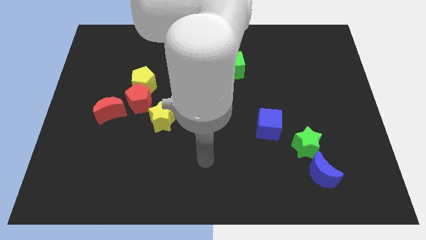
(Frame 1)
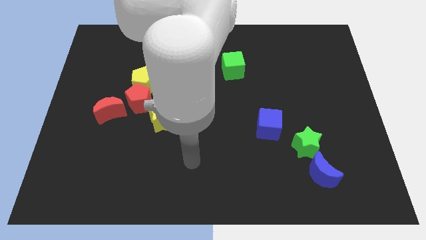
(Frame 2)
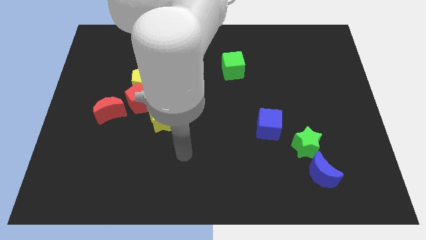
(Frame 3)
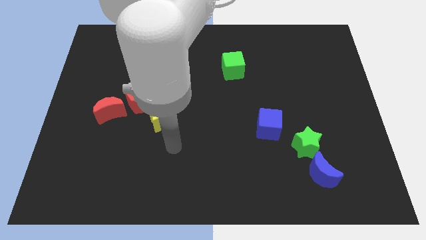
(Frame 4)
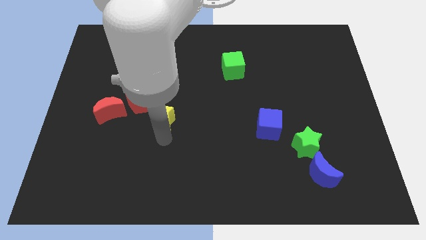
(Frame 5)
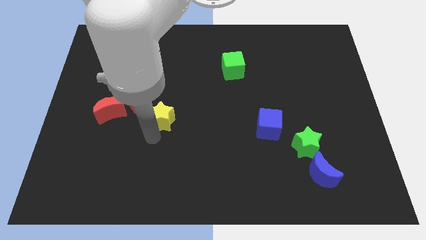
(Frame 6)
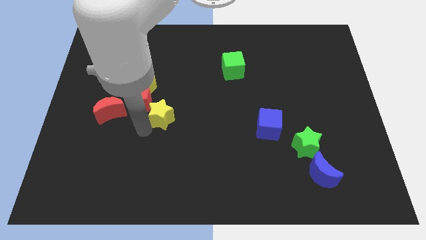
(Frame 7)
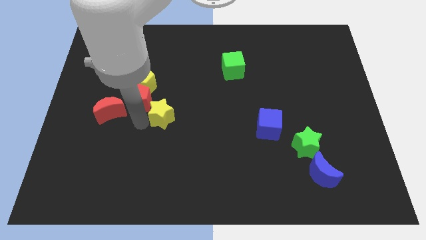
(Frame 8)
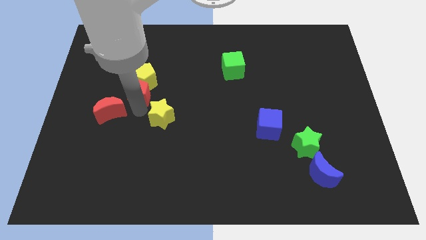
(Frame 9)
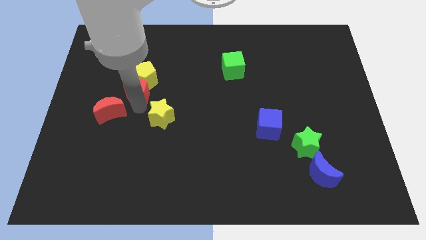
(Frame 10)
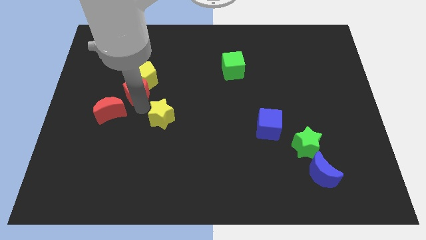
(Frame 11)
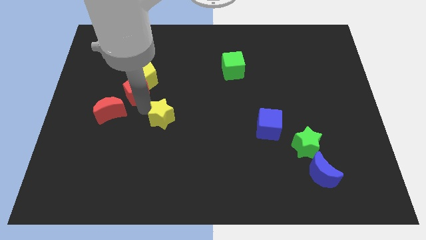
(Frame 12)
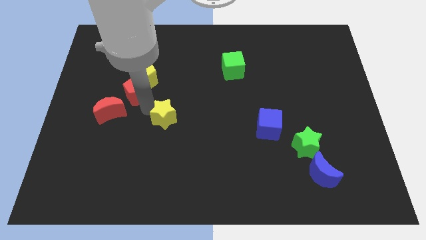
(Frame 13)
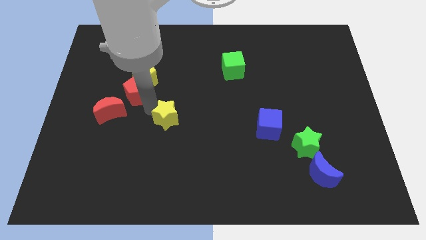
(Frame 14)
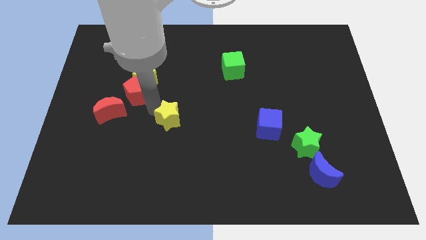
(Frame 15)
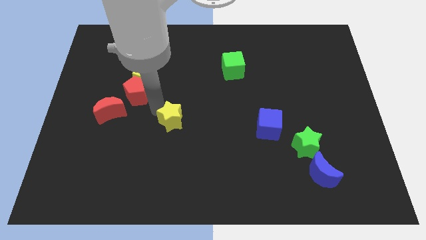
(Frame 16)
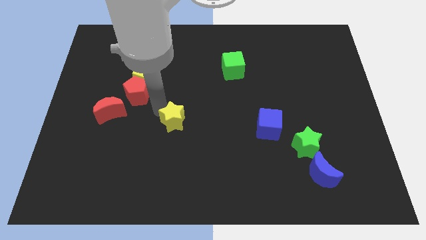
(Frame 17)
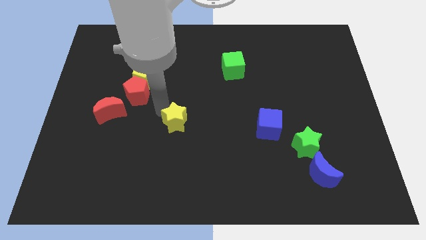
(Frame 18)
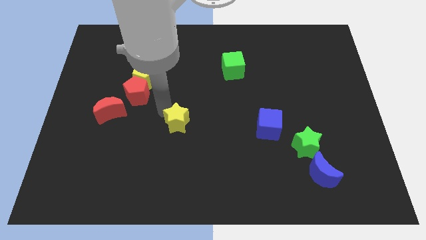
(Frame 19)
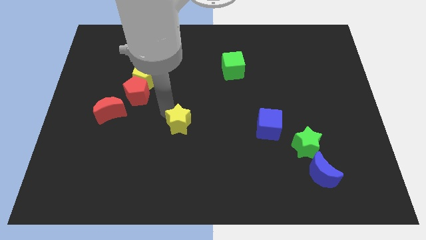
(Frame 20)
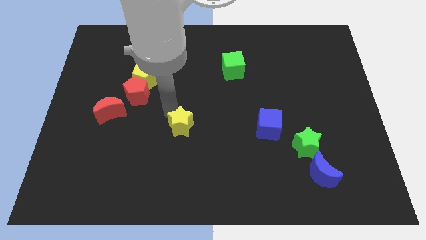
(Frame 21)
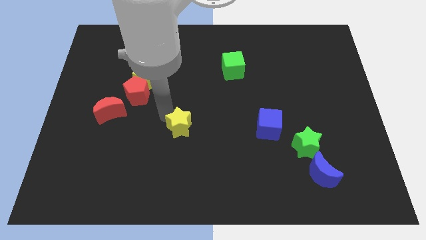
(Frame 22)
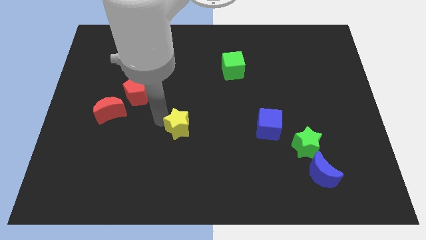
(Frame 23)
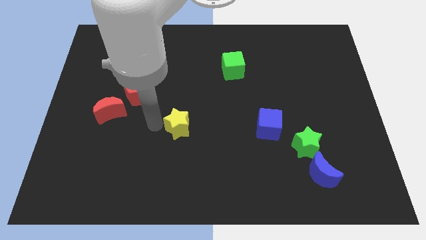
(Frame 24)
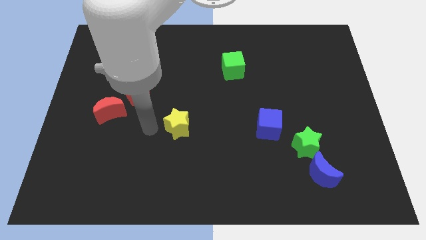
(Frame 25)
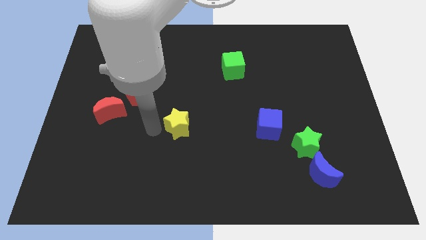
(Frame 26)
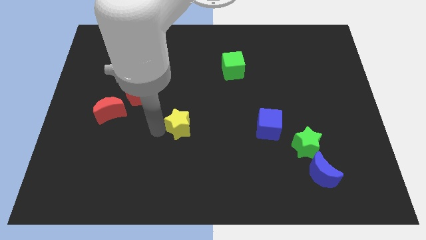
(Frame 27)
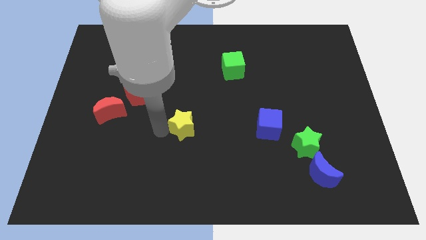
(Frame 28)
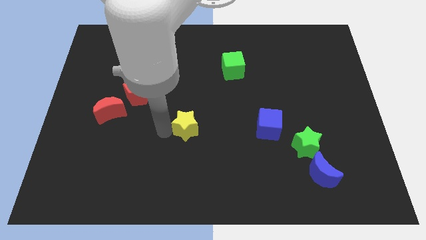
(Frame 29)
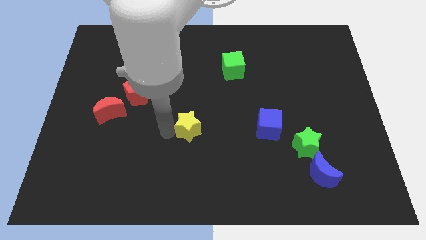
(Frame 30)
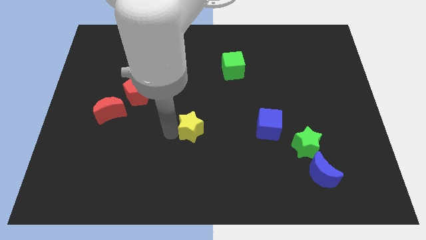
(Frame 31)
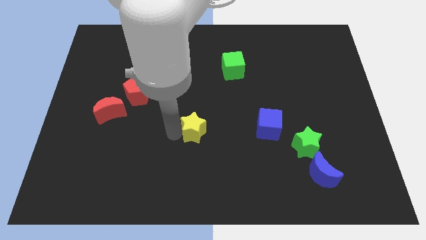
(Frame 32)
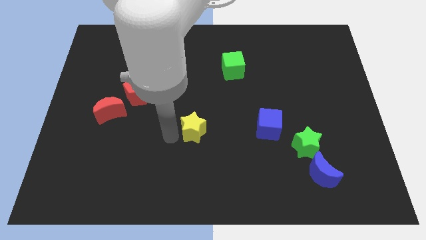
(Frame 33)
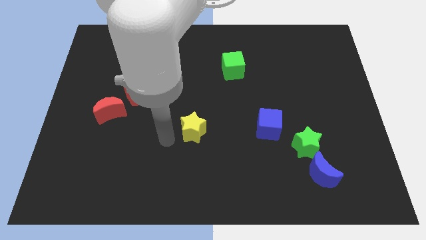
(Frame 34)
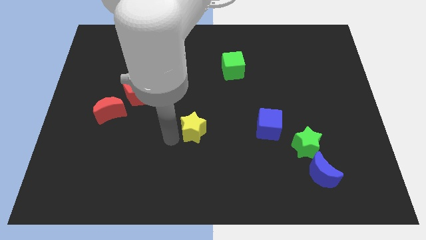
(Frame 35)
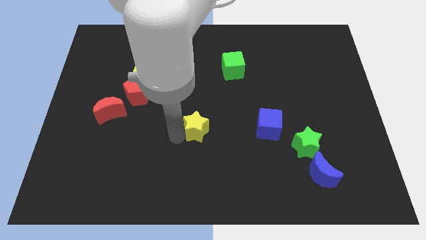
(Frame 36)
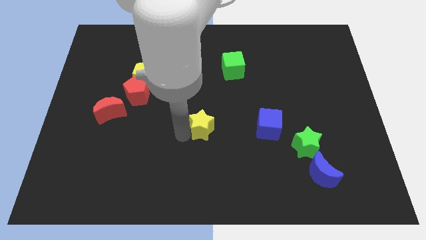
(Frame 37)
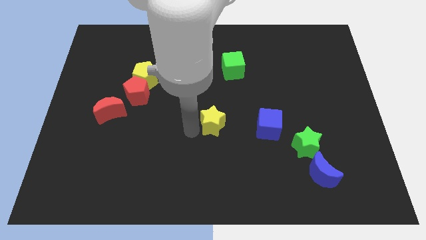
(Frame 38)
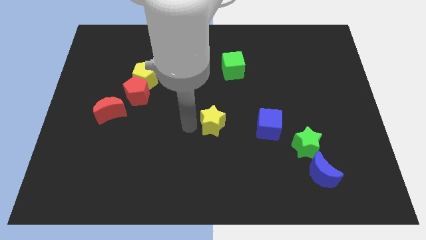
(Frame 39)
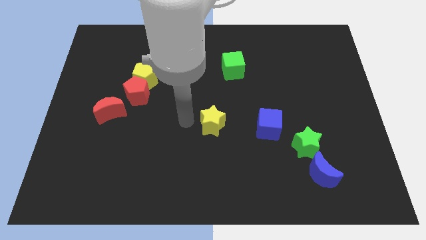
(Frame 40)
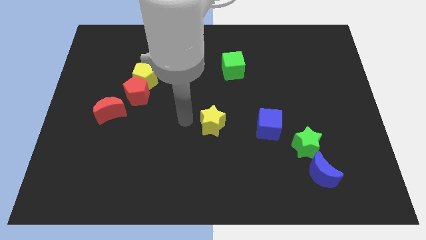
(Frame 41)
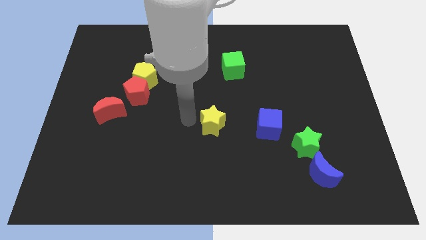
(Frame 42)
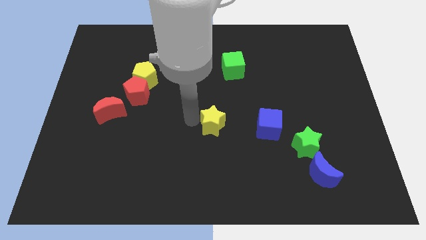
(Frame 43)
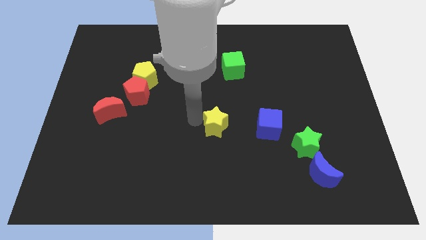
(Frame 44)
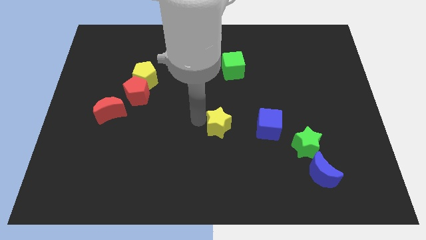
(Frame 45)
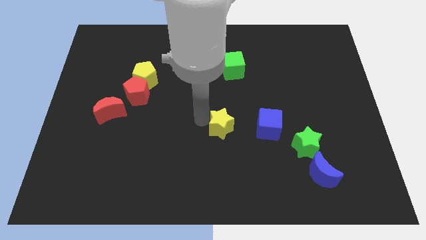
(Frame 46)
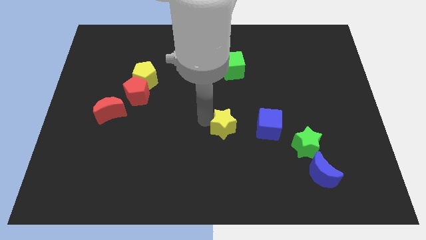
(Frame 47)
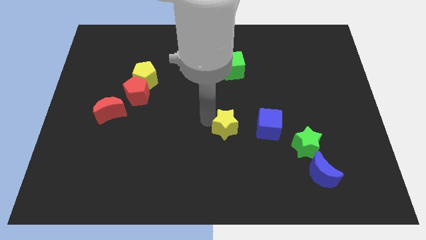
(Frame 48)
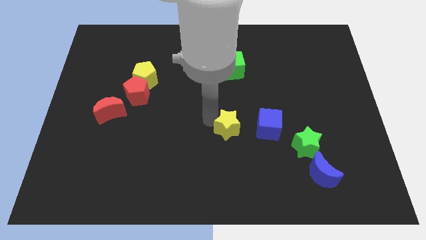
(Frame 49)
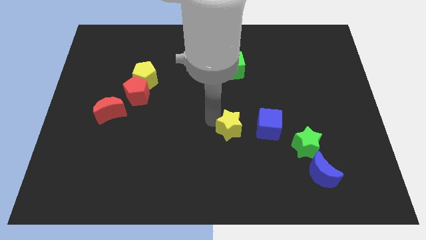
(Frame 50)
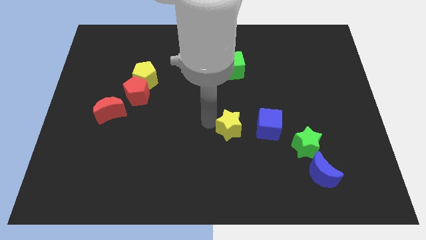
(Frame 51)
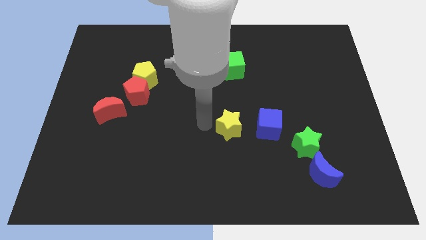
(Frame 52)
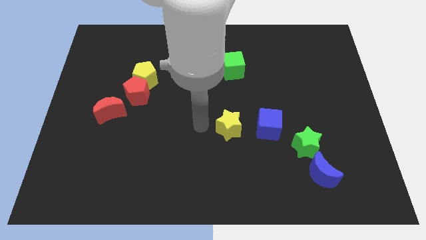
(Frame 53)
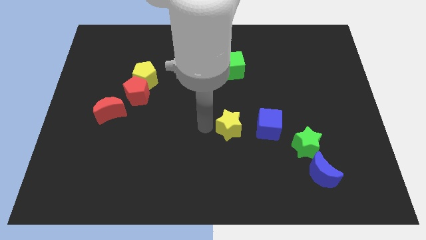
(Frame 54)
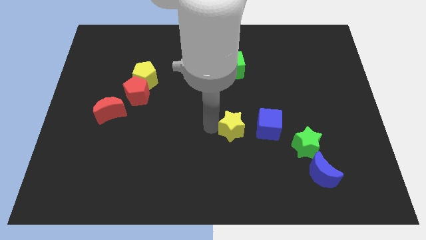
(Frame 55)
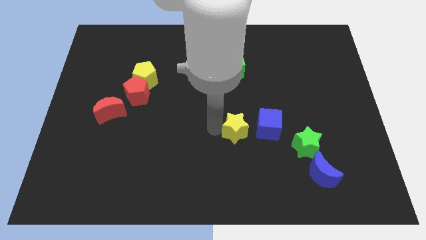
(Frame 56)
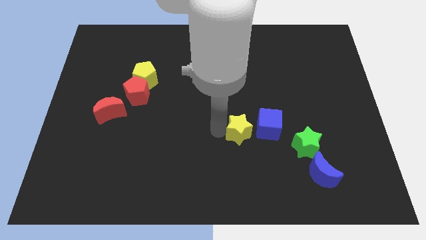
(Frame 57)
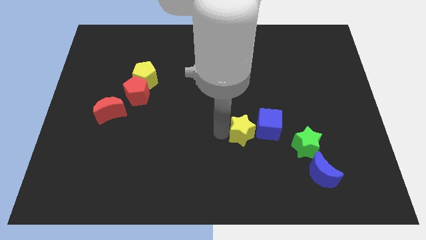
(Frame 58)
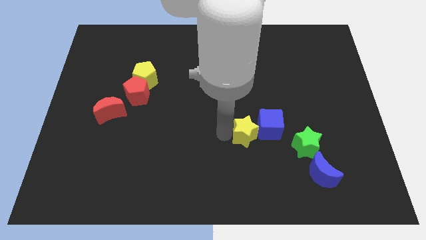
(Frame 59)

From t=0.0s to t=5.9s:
put the yellow star close to the blue cube

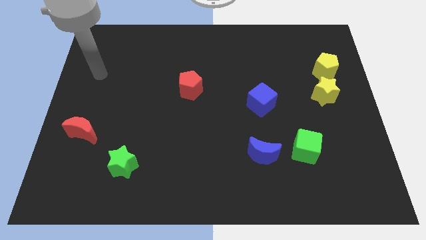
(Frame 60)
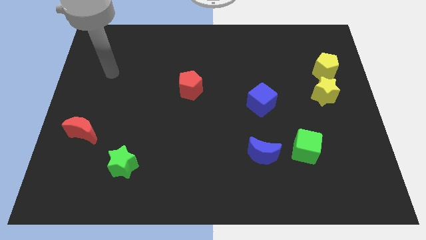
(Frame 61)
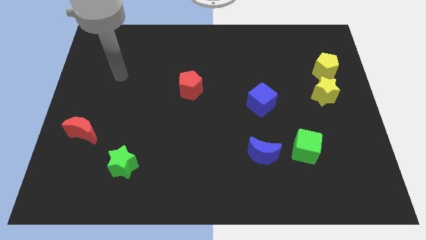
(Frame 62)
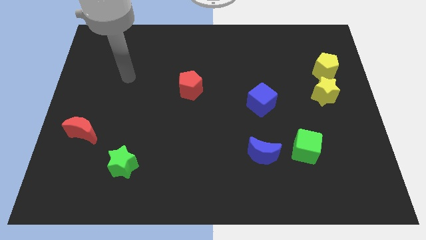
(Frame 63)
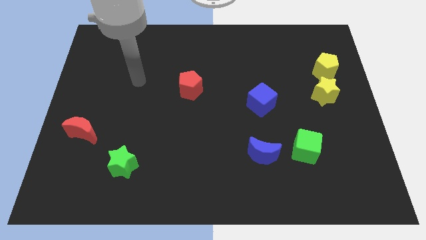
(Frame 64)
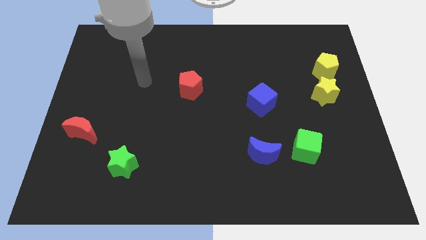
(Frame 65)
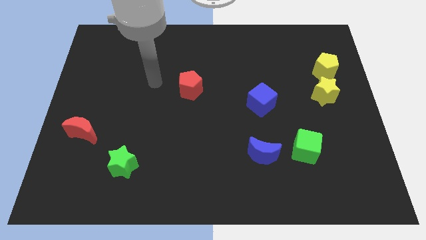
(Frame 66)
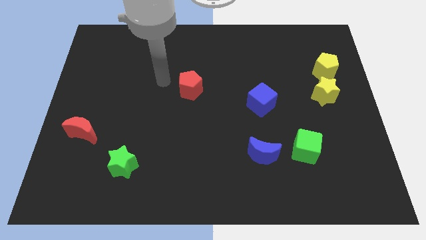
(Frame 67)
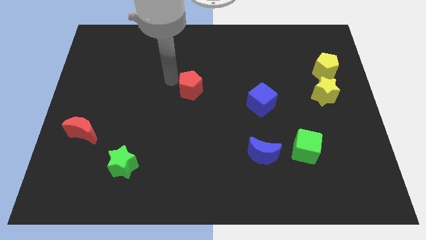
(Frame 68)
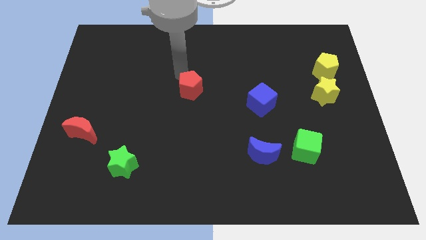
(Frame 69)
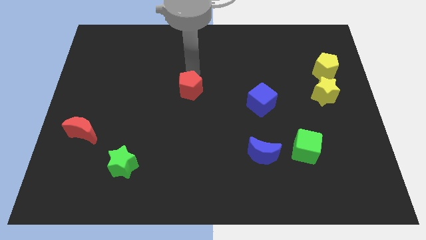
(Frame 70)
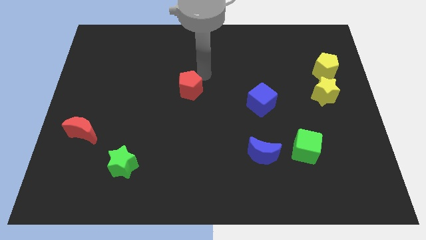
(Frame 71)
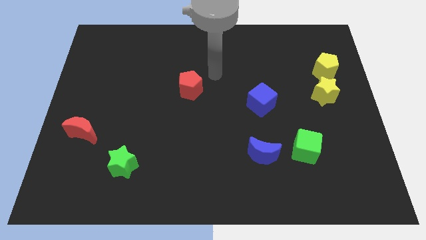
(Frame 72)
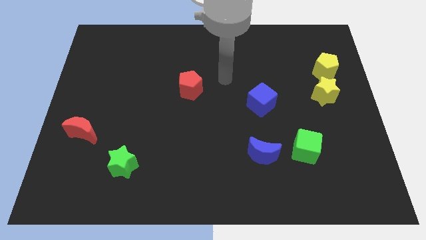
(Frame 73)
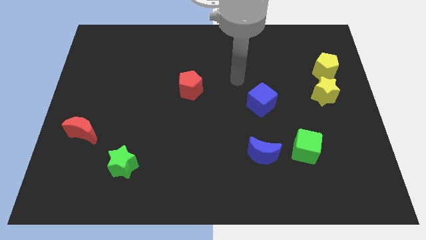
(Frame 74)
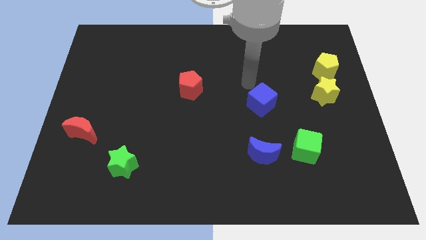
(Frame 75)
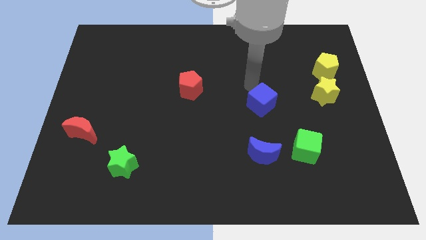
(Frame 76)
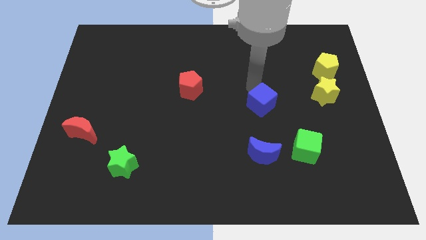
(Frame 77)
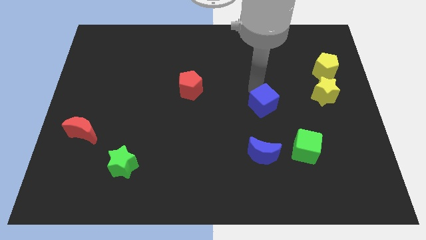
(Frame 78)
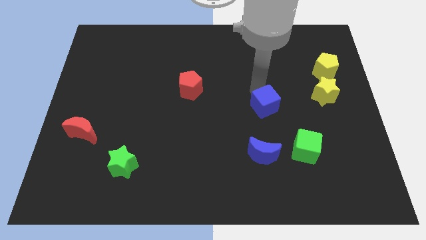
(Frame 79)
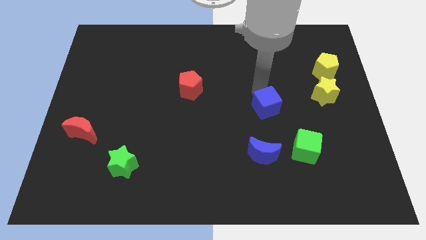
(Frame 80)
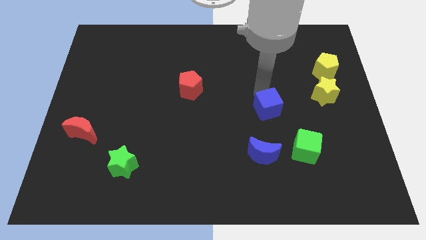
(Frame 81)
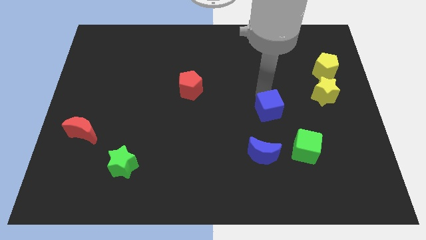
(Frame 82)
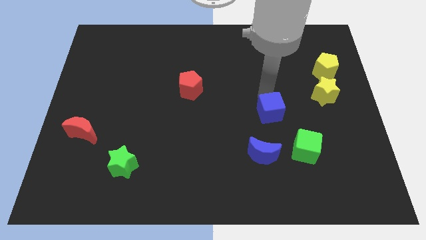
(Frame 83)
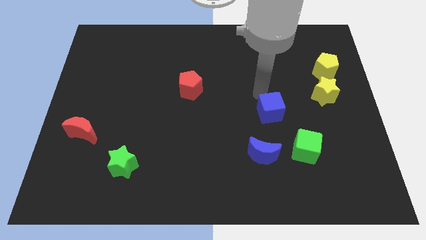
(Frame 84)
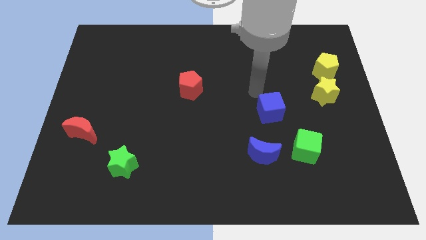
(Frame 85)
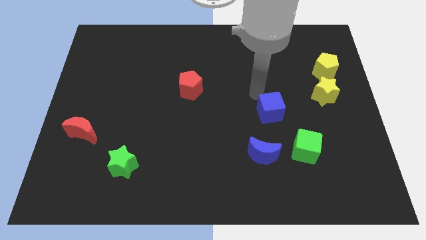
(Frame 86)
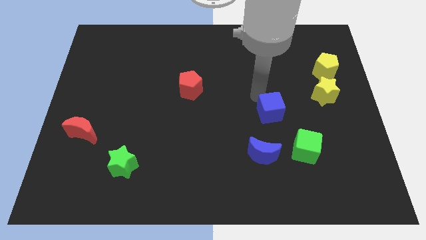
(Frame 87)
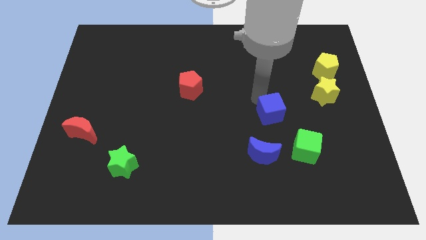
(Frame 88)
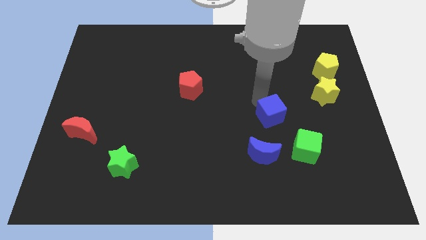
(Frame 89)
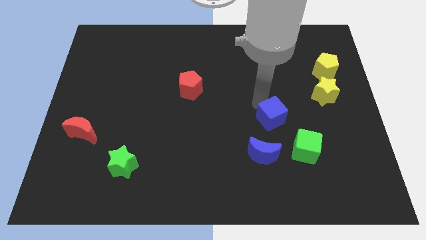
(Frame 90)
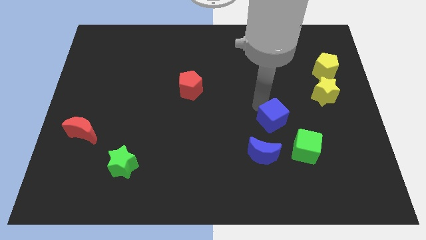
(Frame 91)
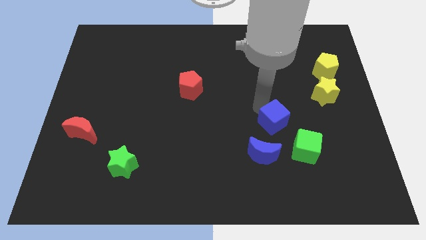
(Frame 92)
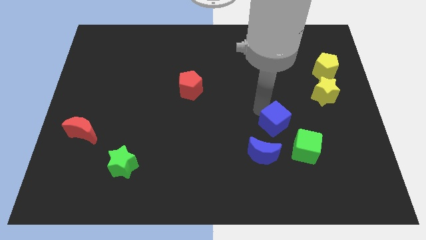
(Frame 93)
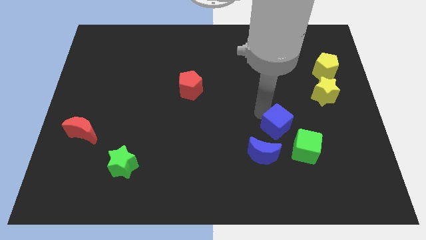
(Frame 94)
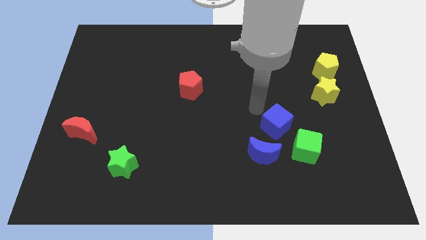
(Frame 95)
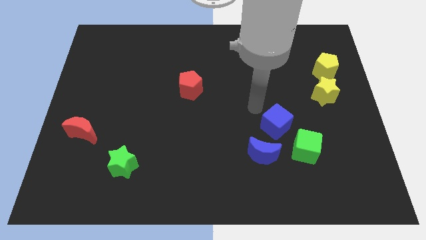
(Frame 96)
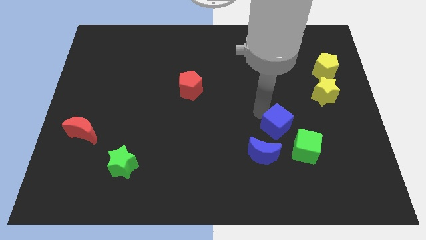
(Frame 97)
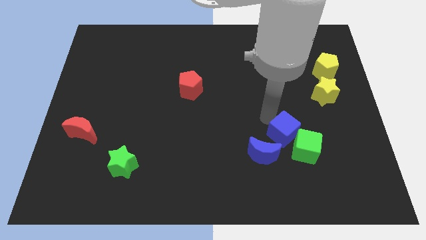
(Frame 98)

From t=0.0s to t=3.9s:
move the blue cube towards the green cube
